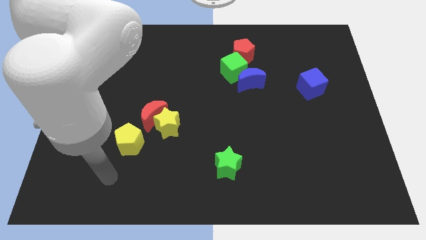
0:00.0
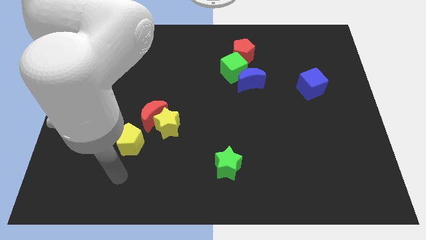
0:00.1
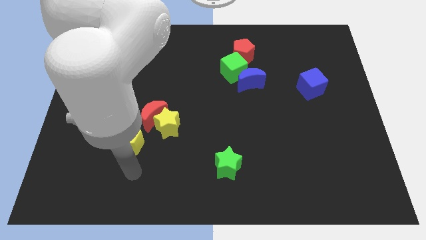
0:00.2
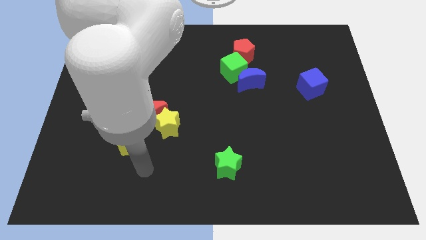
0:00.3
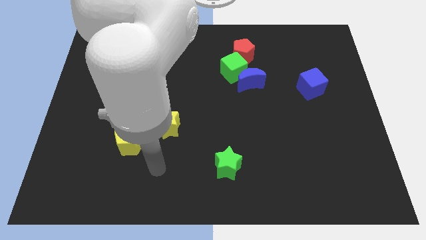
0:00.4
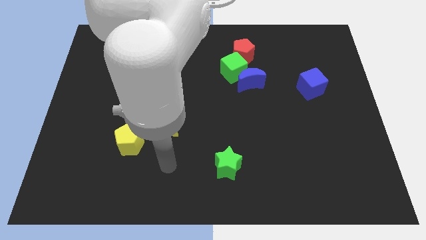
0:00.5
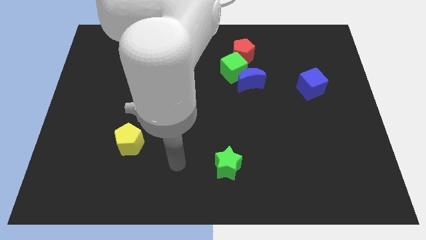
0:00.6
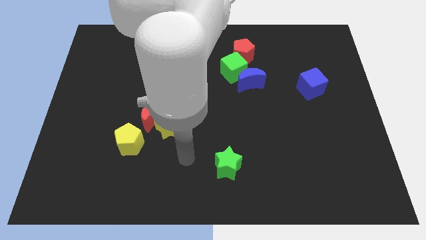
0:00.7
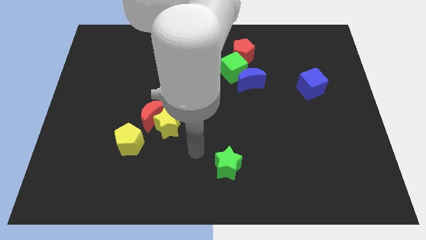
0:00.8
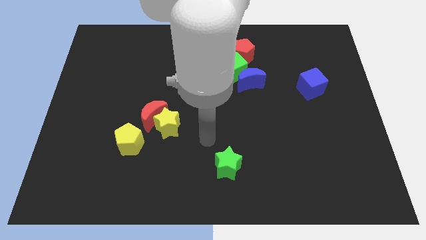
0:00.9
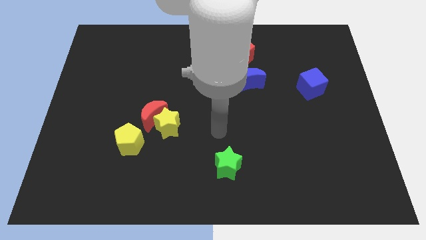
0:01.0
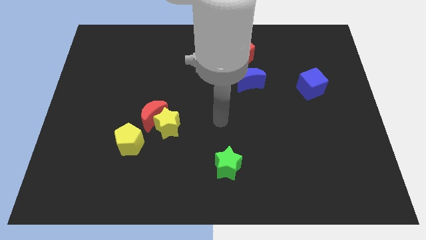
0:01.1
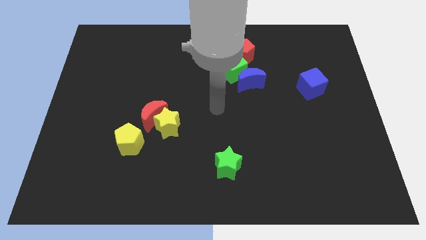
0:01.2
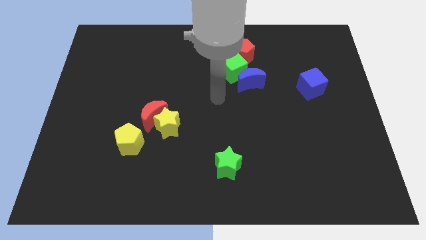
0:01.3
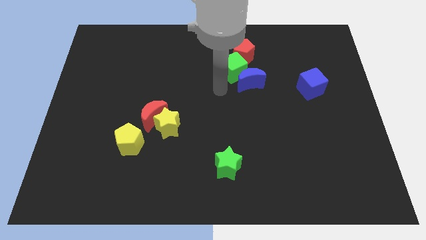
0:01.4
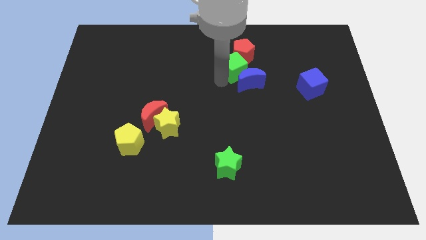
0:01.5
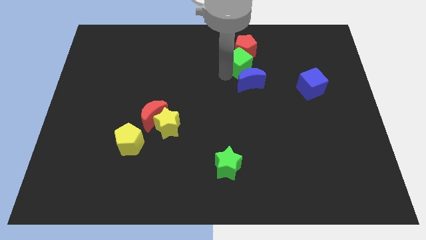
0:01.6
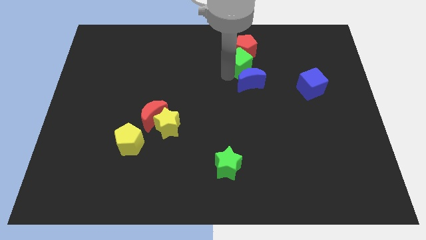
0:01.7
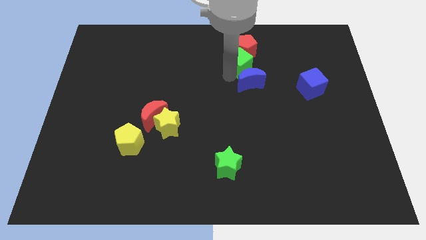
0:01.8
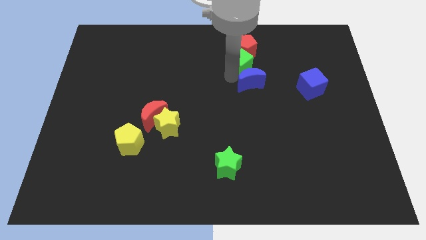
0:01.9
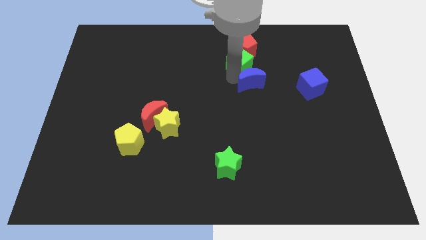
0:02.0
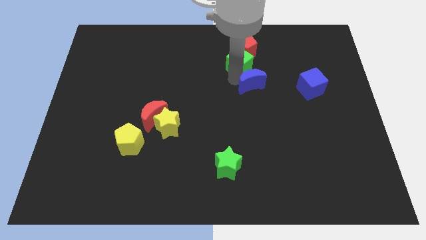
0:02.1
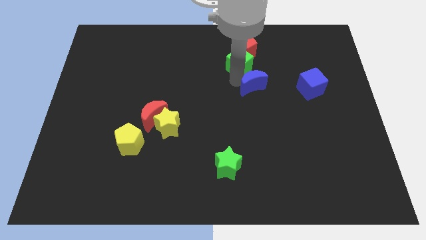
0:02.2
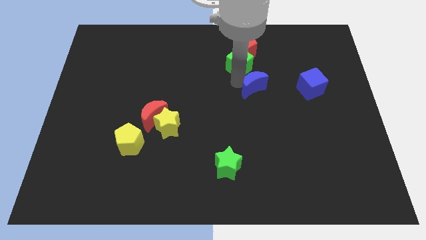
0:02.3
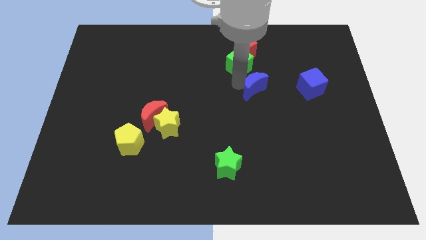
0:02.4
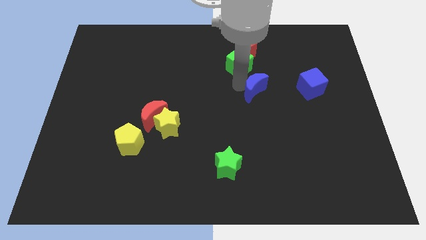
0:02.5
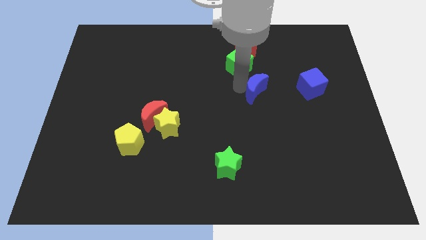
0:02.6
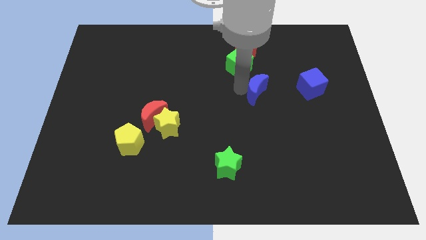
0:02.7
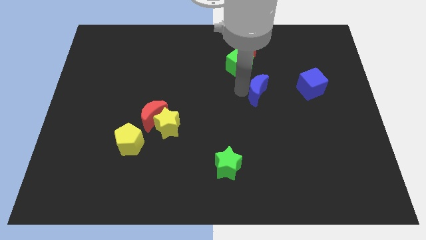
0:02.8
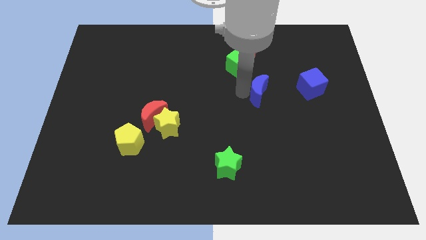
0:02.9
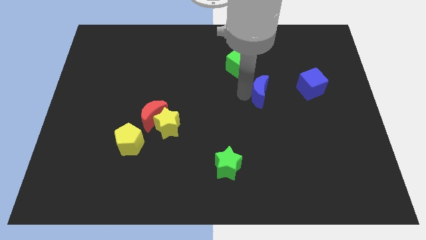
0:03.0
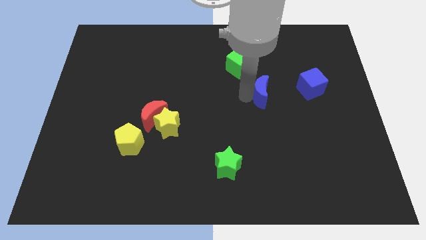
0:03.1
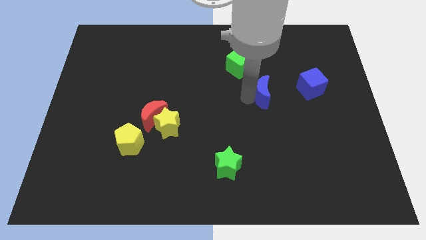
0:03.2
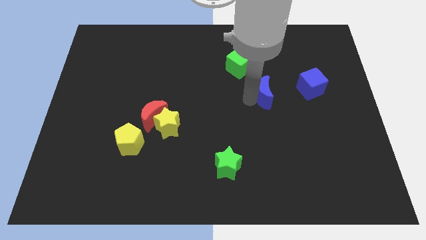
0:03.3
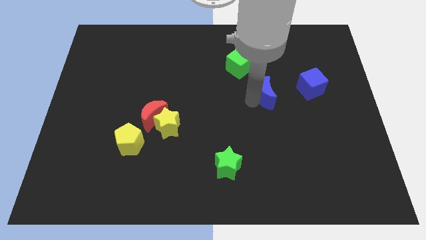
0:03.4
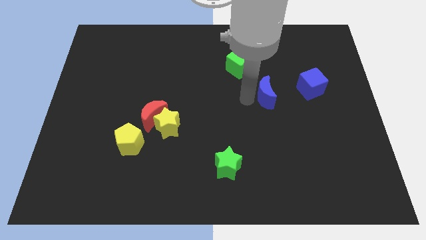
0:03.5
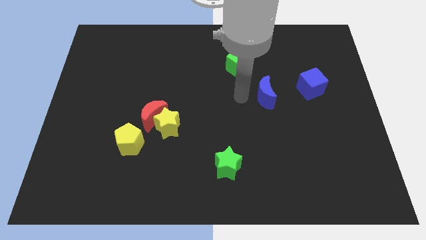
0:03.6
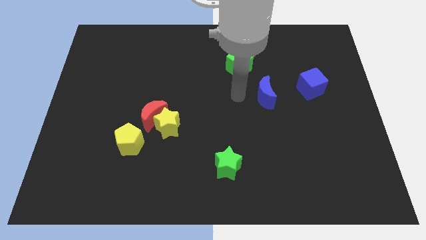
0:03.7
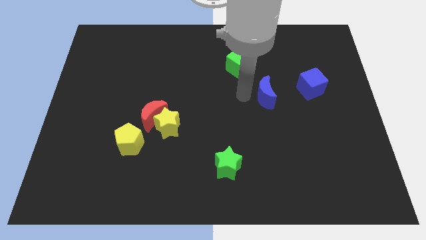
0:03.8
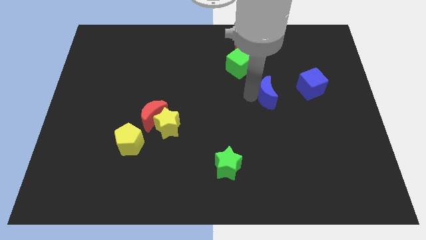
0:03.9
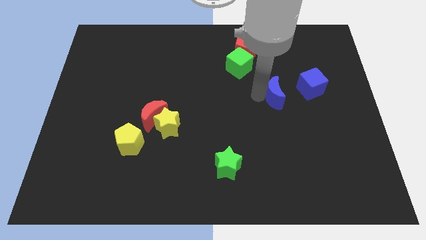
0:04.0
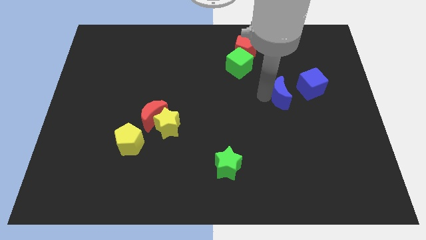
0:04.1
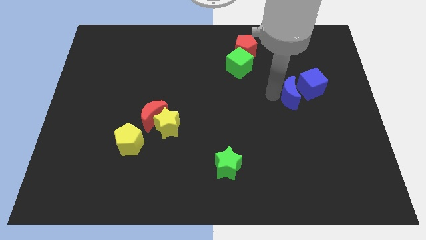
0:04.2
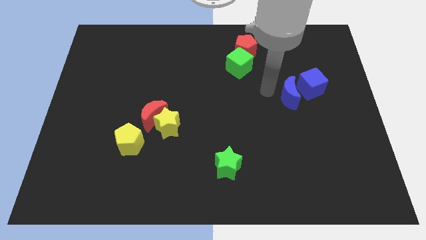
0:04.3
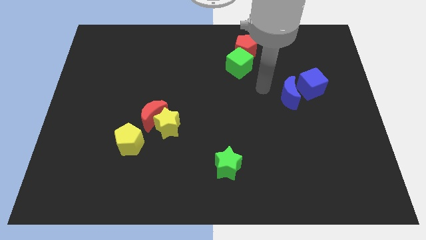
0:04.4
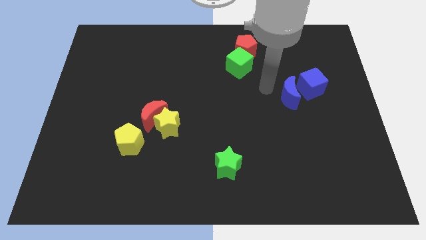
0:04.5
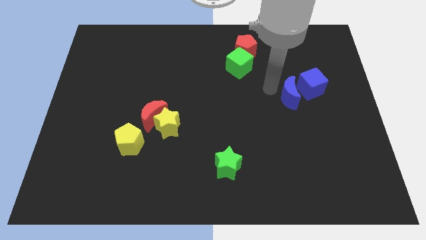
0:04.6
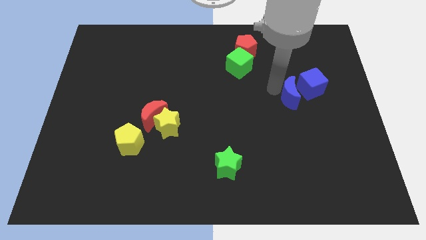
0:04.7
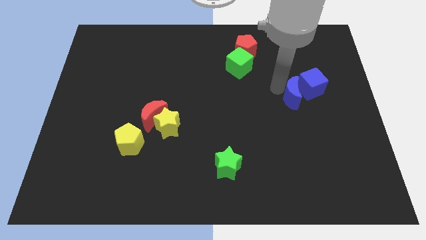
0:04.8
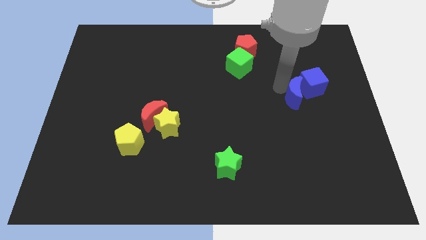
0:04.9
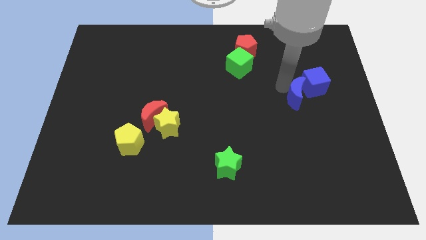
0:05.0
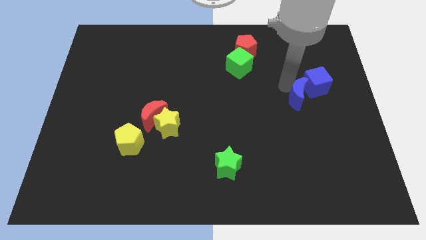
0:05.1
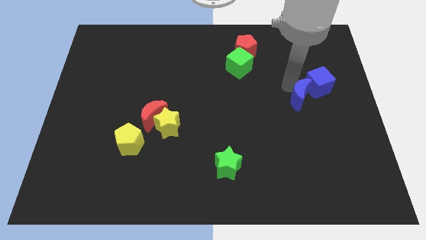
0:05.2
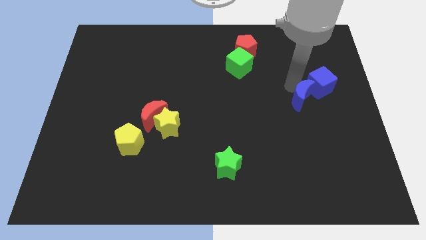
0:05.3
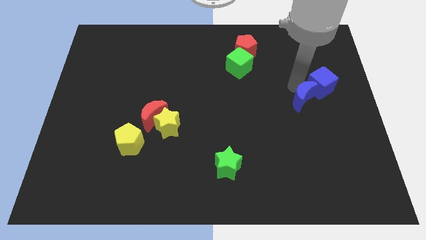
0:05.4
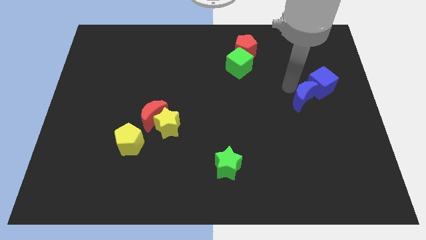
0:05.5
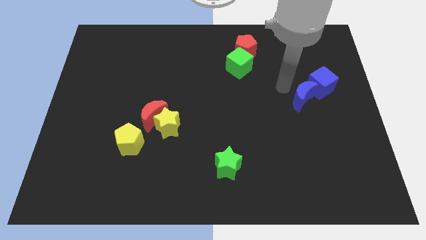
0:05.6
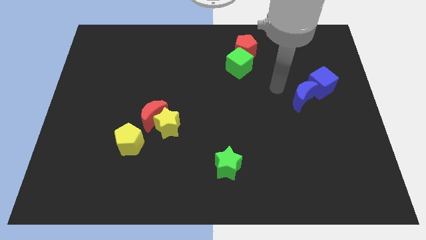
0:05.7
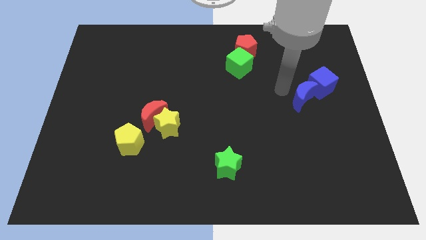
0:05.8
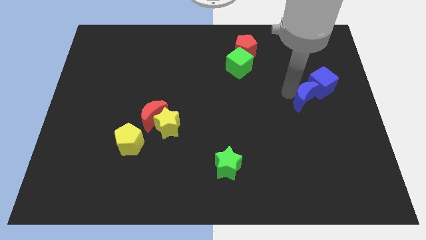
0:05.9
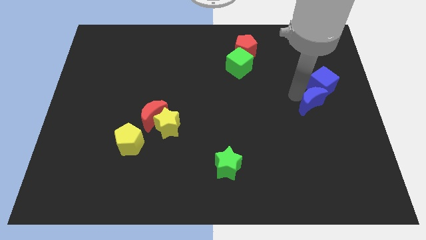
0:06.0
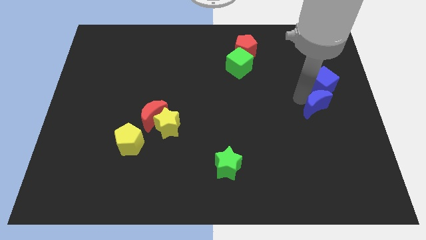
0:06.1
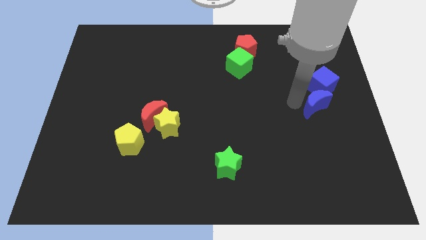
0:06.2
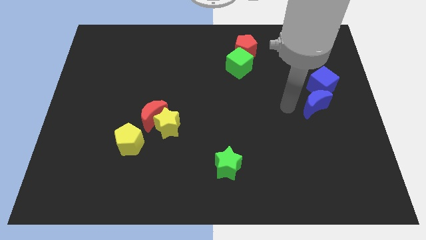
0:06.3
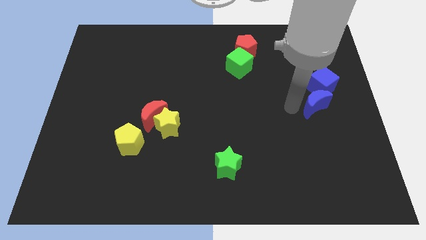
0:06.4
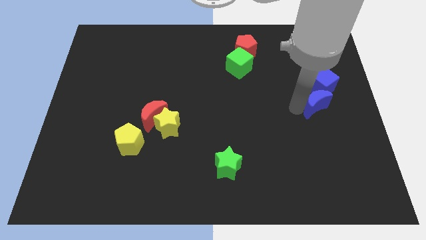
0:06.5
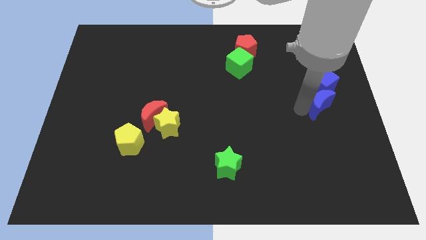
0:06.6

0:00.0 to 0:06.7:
push the blue moon to the center right
